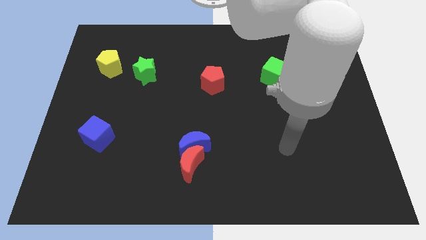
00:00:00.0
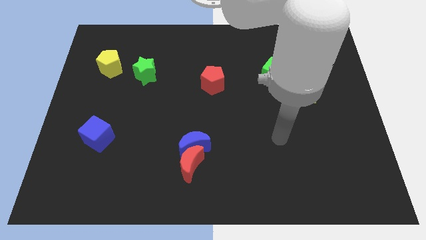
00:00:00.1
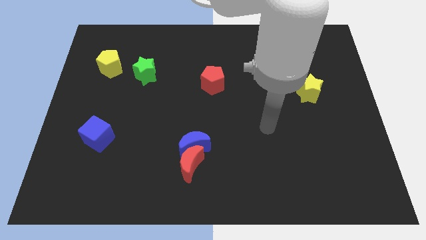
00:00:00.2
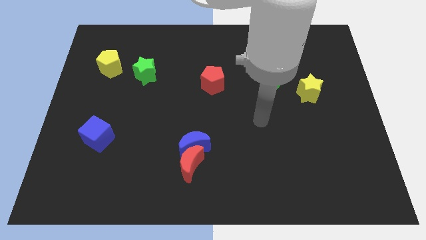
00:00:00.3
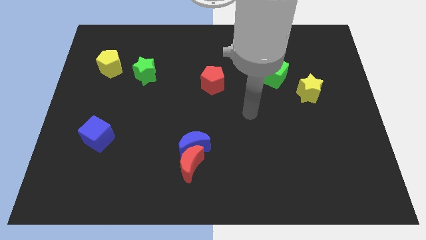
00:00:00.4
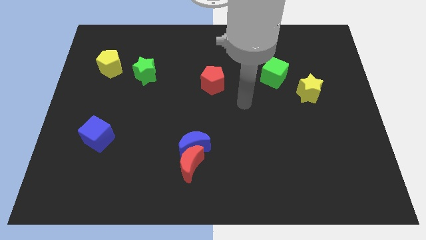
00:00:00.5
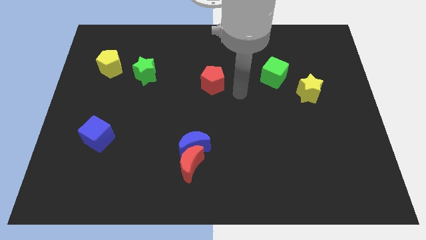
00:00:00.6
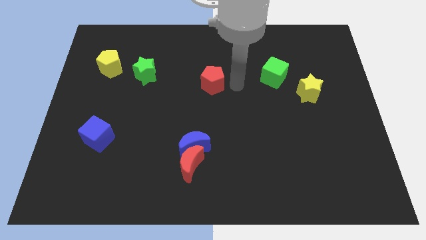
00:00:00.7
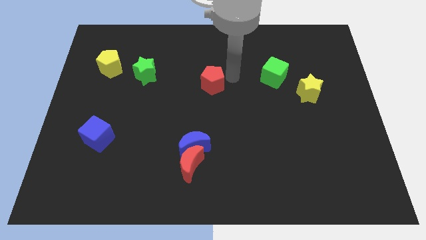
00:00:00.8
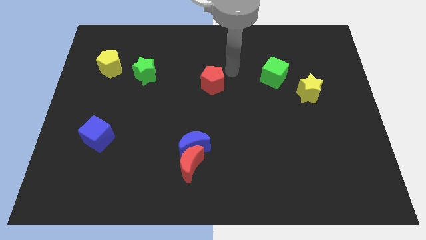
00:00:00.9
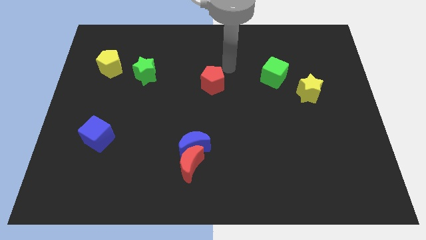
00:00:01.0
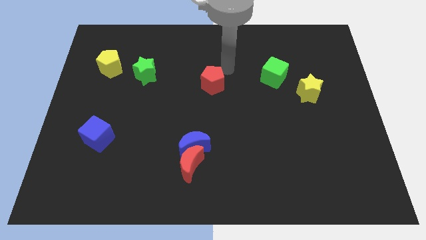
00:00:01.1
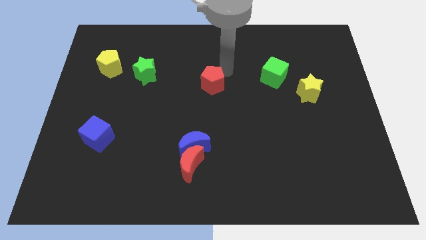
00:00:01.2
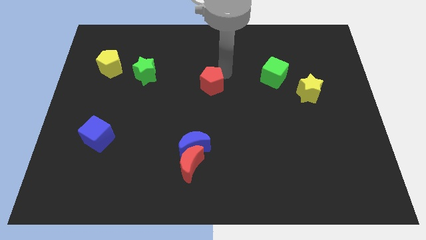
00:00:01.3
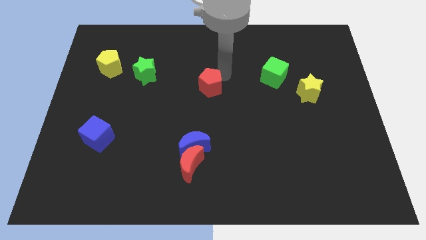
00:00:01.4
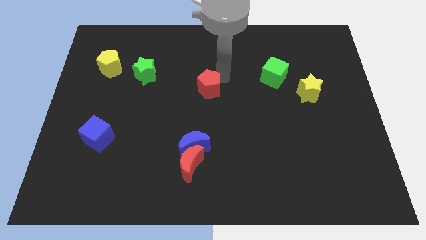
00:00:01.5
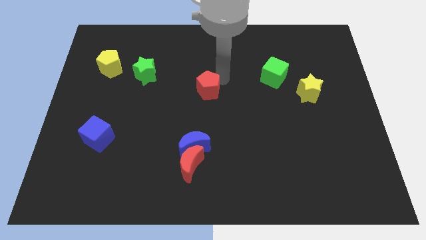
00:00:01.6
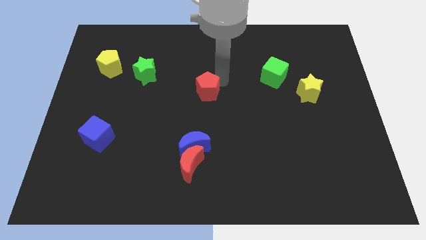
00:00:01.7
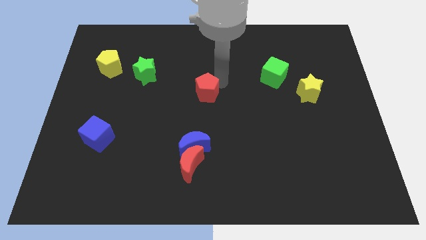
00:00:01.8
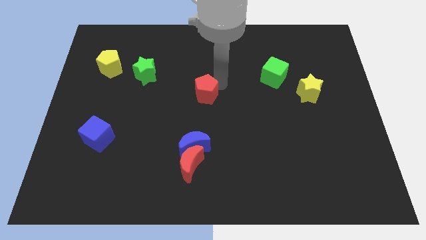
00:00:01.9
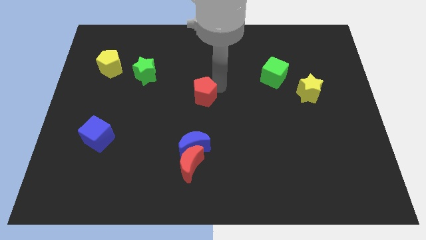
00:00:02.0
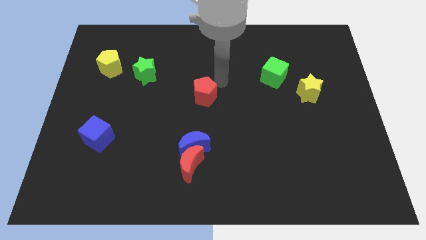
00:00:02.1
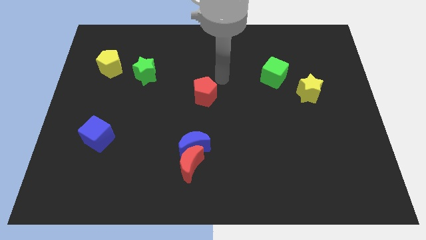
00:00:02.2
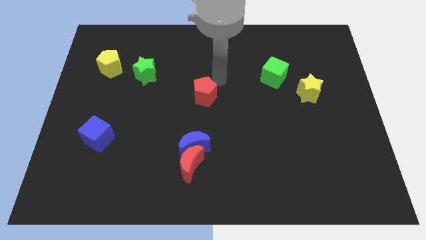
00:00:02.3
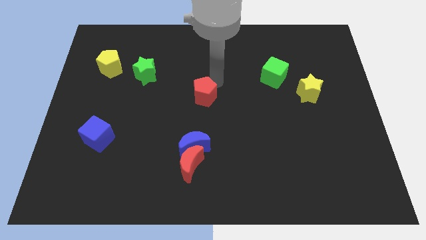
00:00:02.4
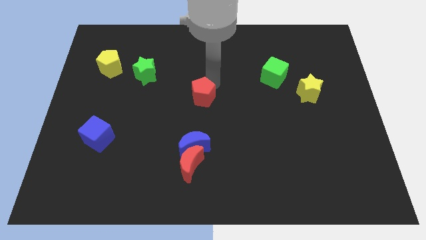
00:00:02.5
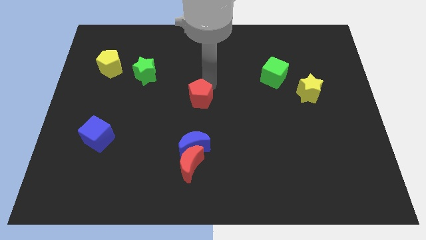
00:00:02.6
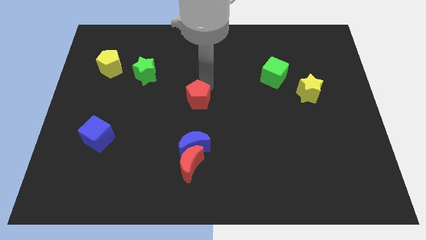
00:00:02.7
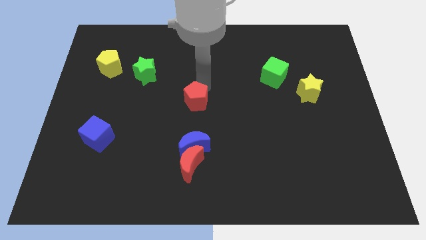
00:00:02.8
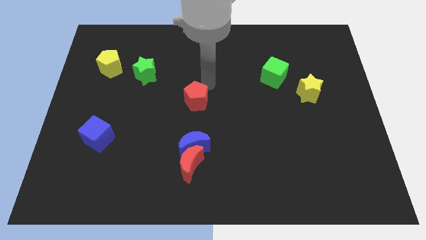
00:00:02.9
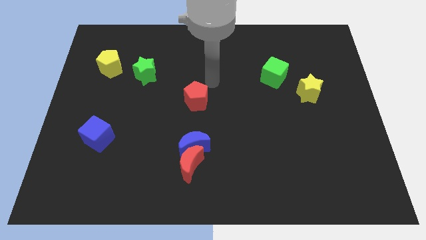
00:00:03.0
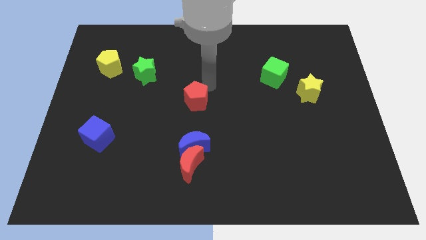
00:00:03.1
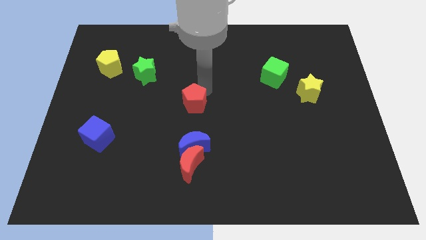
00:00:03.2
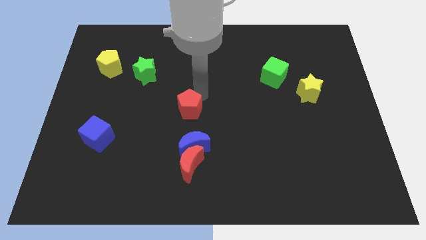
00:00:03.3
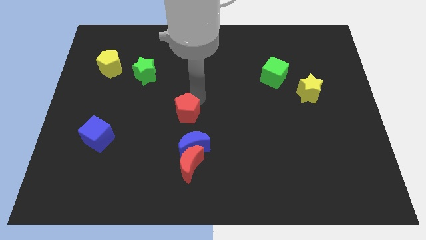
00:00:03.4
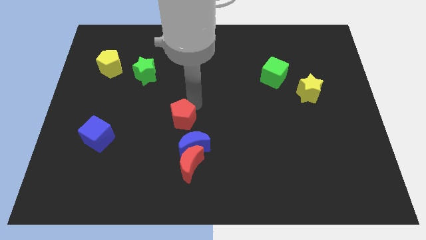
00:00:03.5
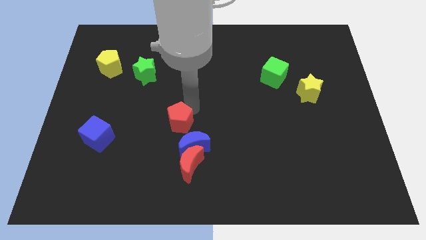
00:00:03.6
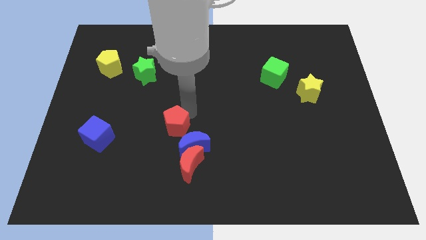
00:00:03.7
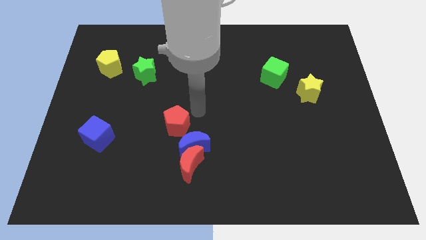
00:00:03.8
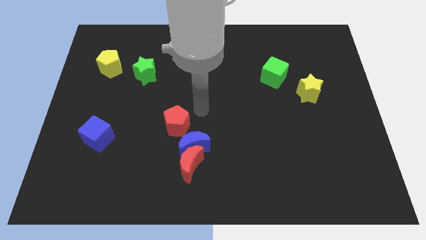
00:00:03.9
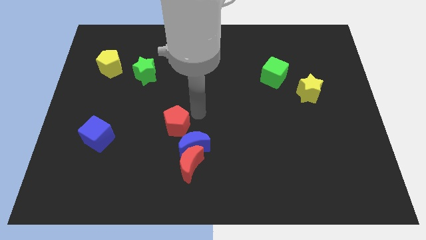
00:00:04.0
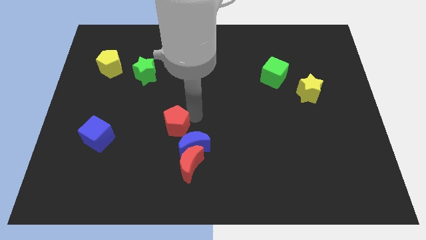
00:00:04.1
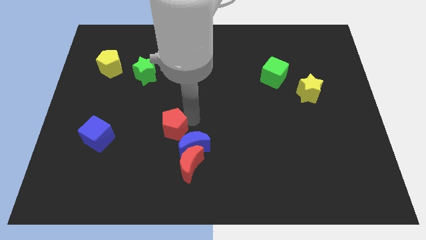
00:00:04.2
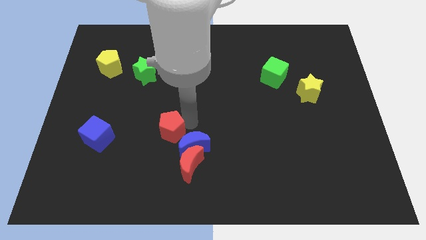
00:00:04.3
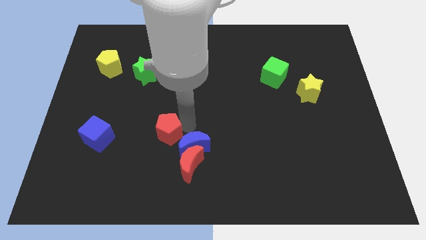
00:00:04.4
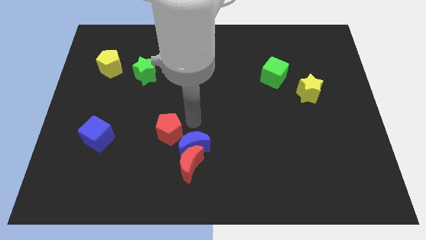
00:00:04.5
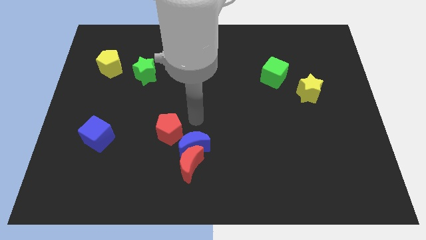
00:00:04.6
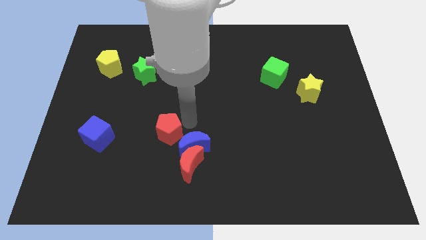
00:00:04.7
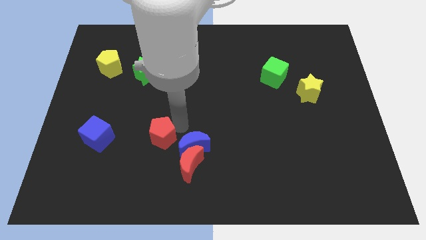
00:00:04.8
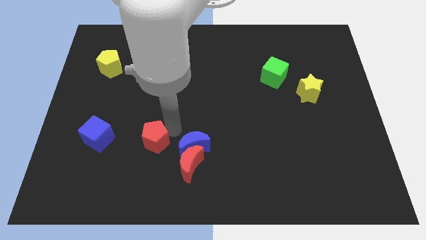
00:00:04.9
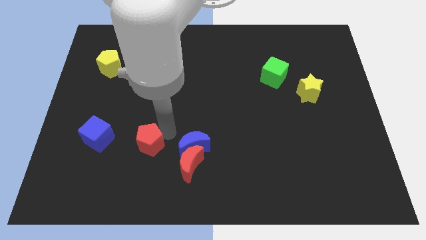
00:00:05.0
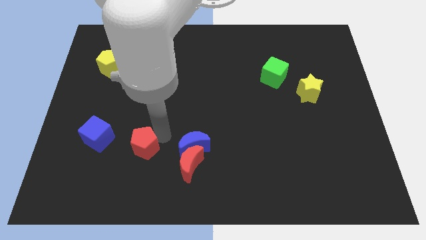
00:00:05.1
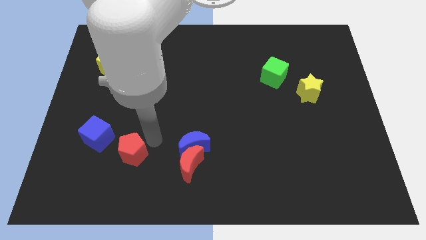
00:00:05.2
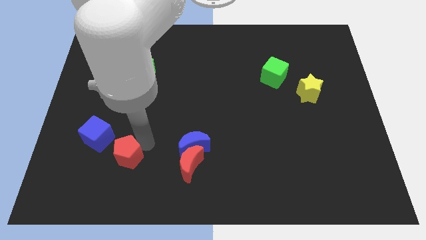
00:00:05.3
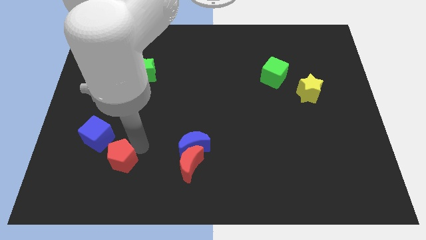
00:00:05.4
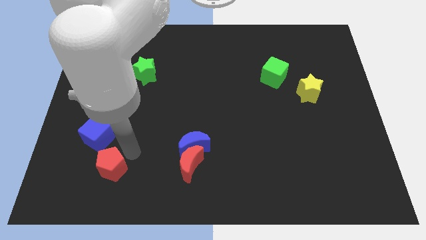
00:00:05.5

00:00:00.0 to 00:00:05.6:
push the red pentagon to the bottom of the blue cube

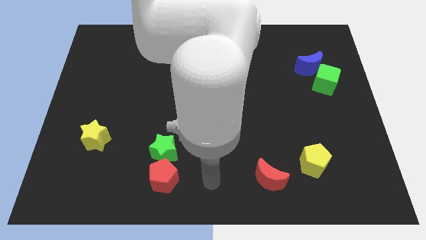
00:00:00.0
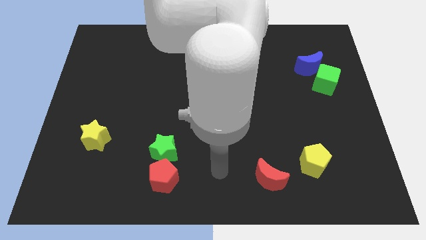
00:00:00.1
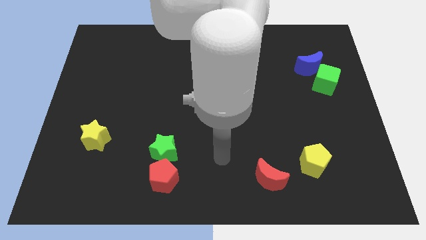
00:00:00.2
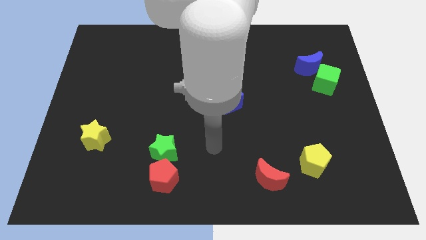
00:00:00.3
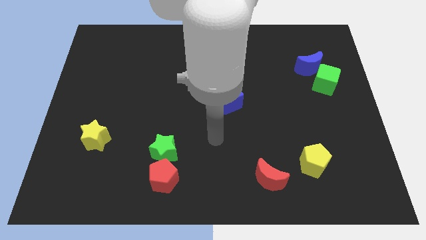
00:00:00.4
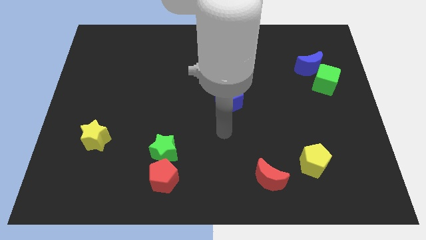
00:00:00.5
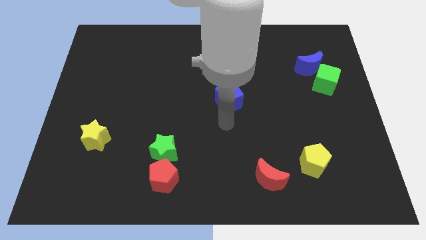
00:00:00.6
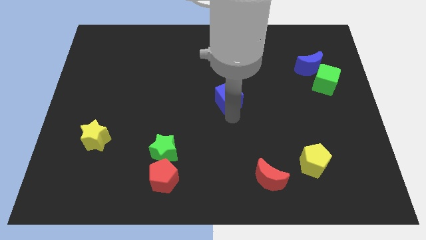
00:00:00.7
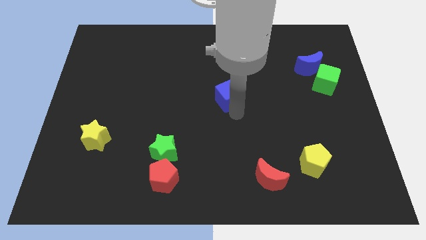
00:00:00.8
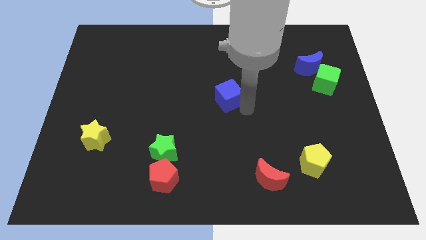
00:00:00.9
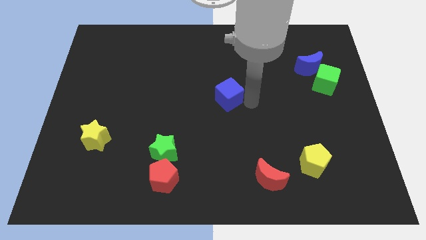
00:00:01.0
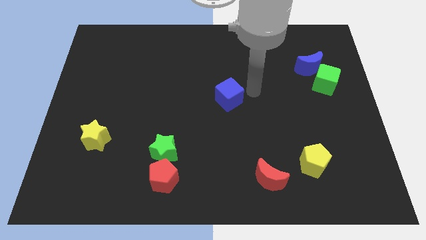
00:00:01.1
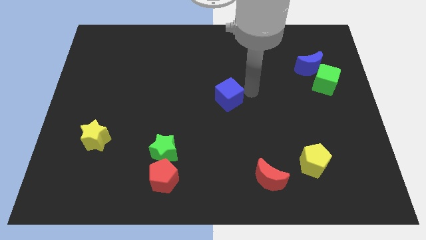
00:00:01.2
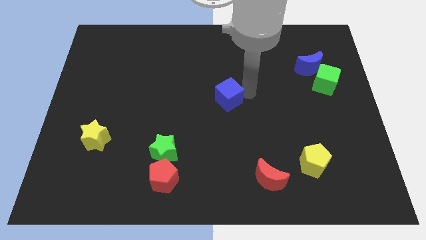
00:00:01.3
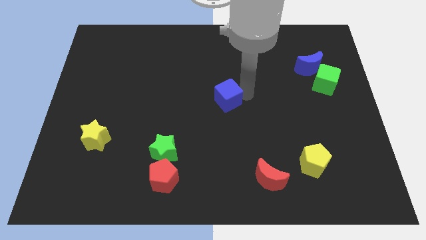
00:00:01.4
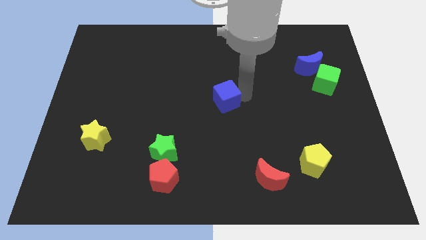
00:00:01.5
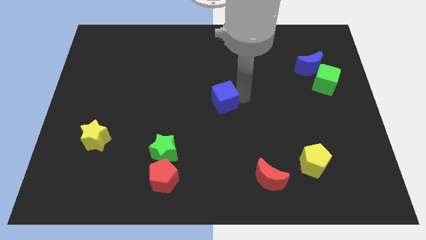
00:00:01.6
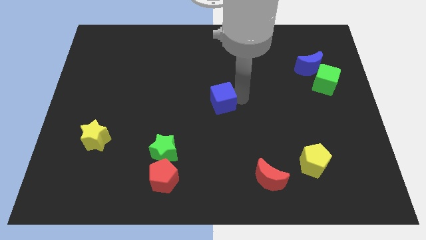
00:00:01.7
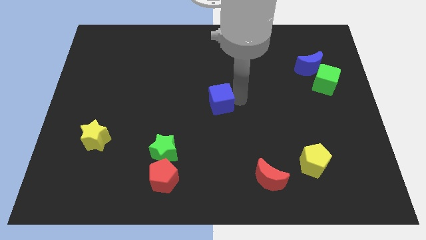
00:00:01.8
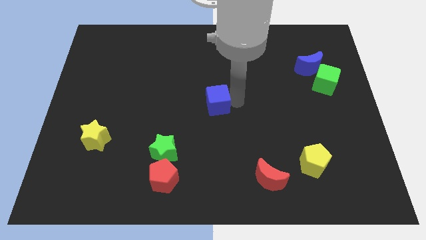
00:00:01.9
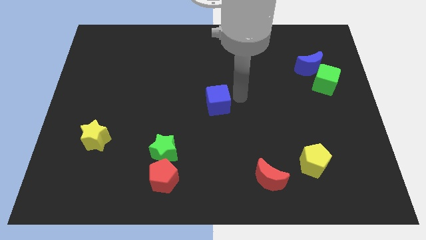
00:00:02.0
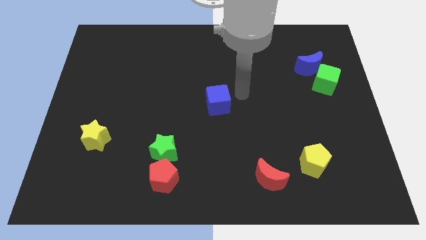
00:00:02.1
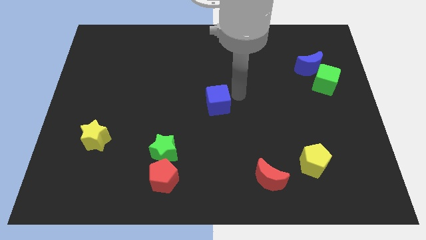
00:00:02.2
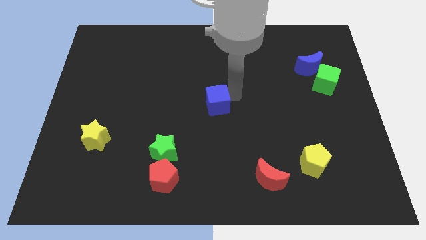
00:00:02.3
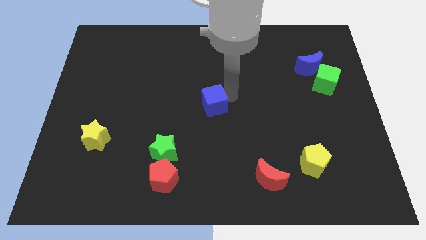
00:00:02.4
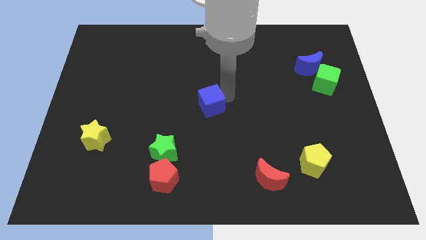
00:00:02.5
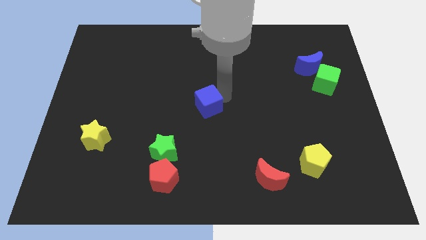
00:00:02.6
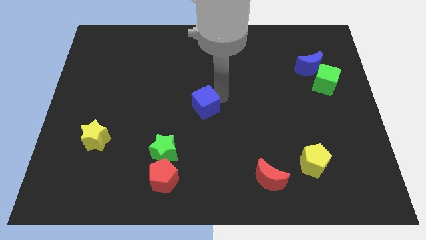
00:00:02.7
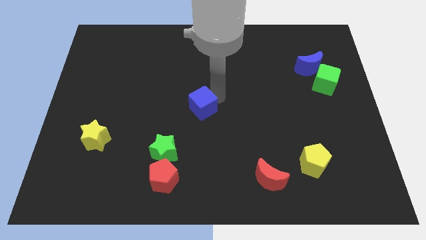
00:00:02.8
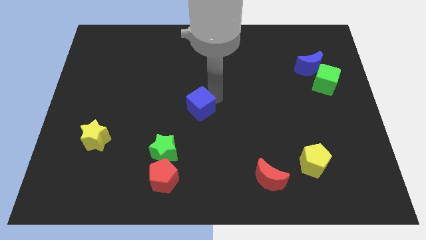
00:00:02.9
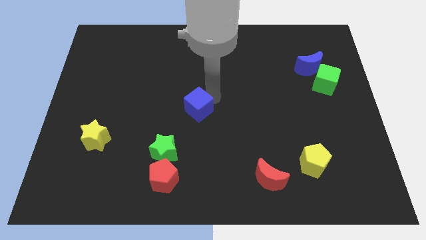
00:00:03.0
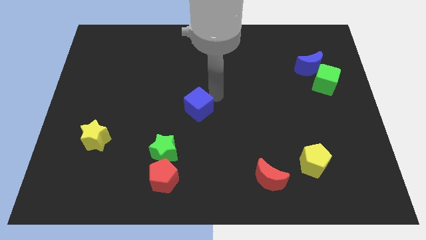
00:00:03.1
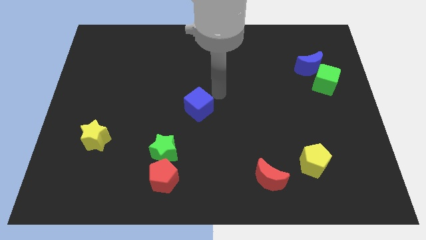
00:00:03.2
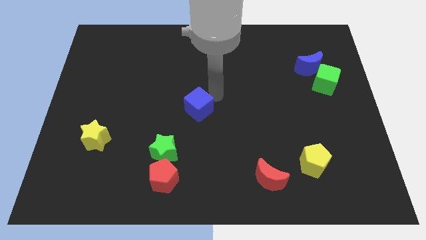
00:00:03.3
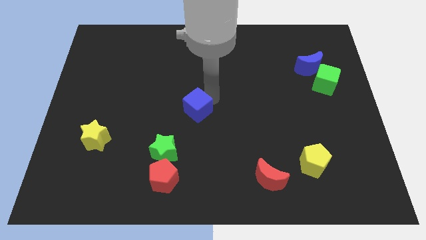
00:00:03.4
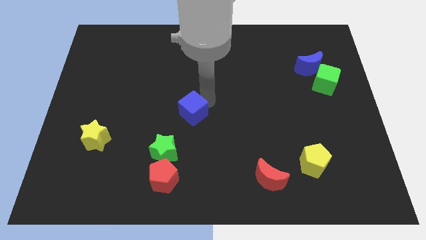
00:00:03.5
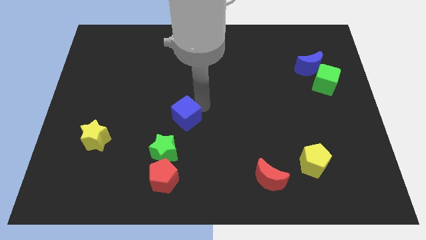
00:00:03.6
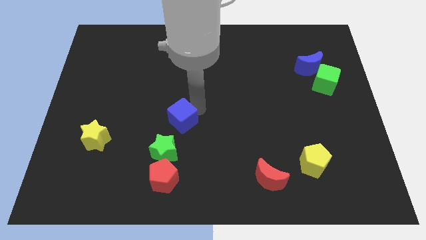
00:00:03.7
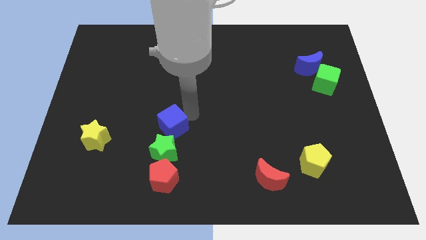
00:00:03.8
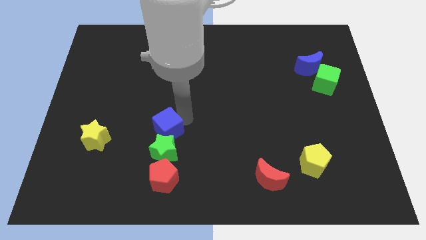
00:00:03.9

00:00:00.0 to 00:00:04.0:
push the blue cube to the right of the yellow star
